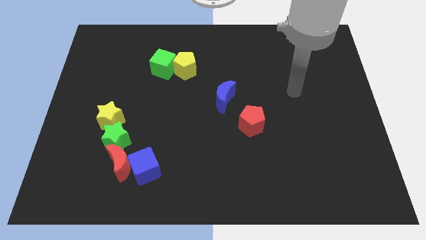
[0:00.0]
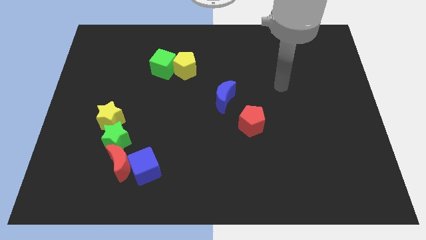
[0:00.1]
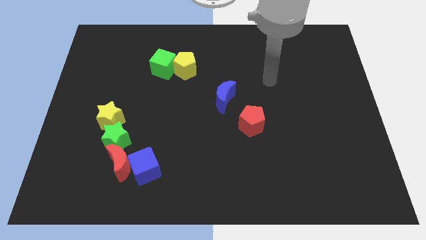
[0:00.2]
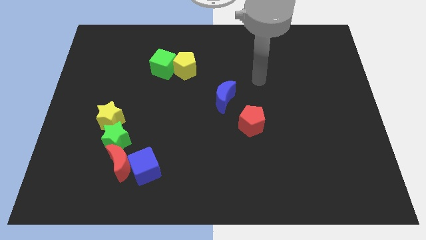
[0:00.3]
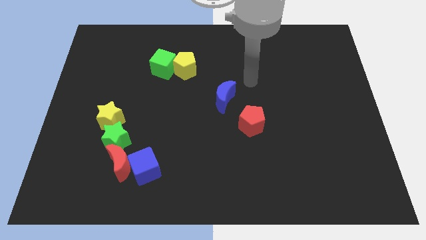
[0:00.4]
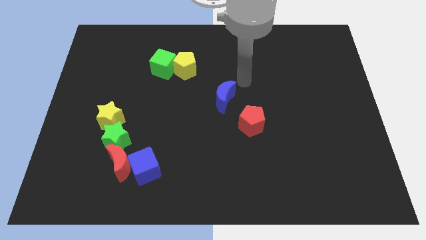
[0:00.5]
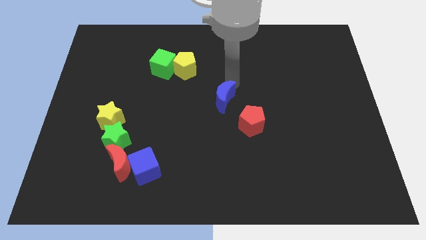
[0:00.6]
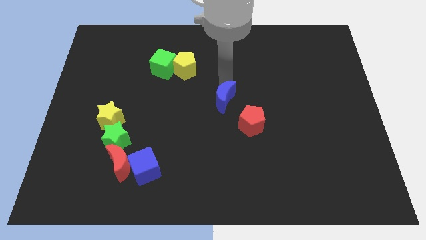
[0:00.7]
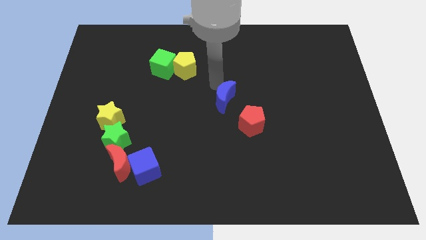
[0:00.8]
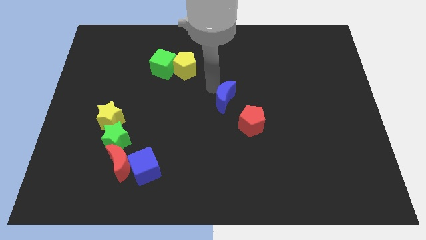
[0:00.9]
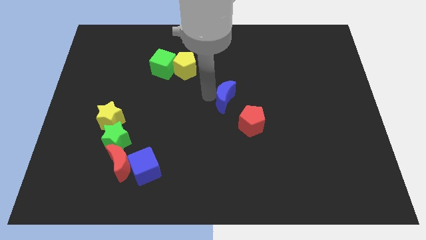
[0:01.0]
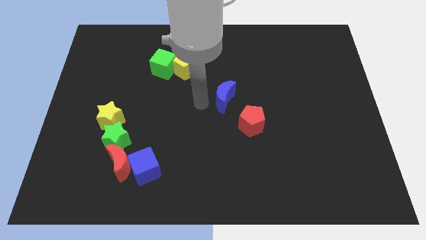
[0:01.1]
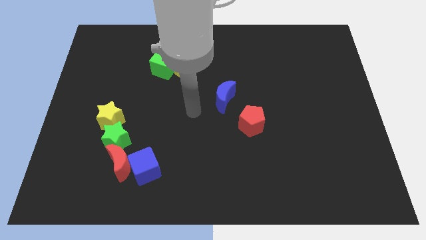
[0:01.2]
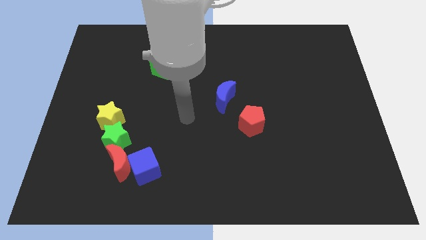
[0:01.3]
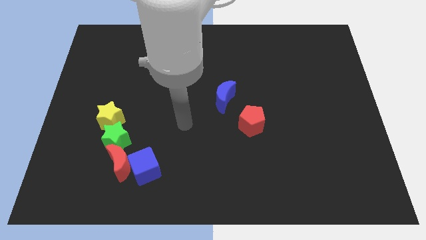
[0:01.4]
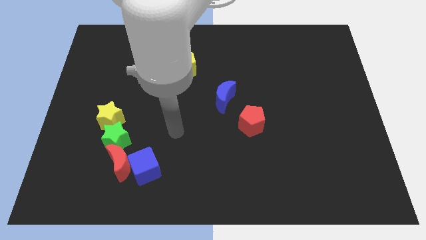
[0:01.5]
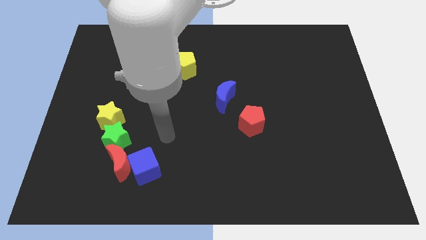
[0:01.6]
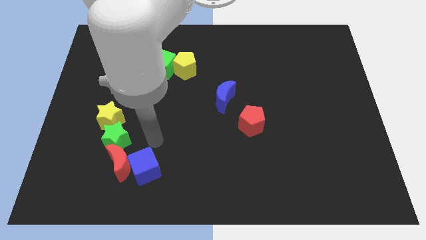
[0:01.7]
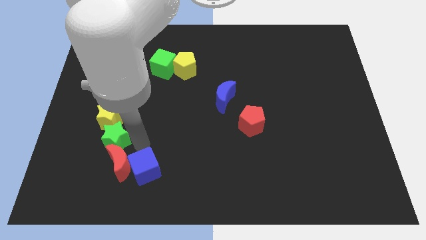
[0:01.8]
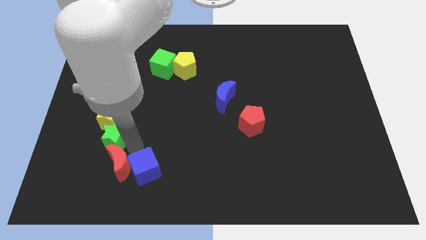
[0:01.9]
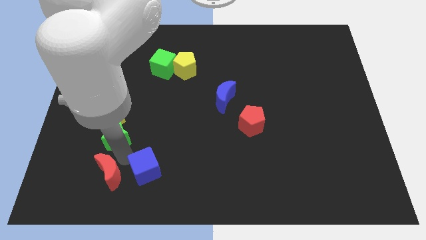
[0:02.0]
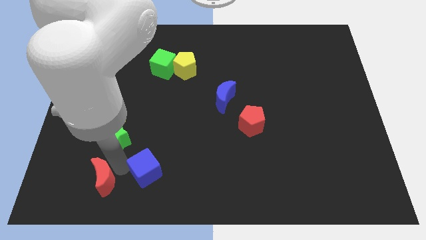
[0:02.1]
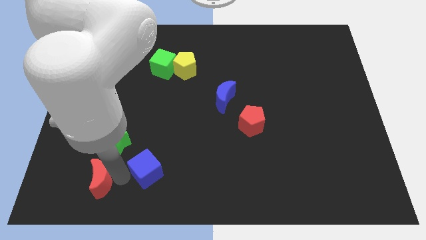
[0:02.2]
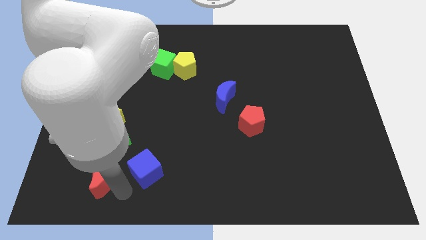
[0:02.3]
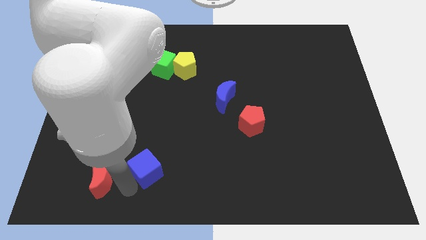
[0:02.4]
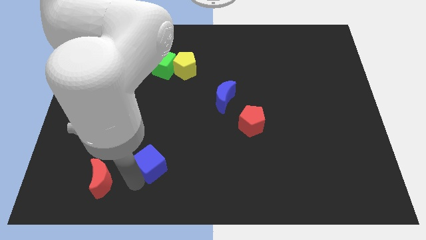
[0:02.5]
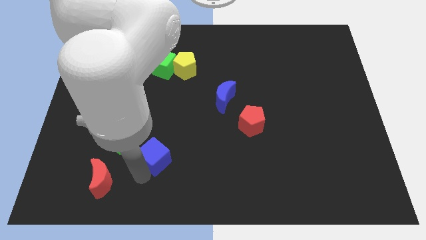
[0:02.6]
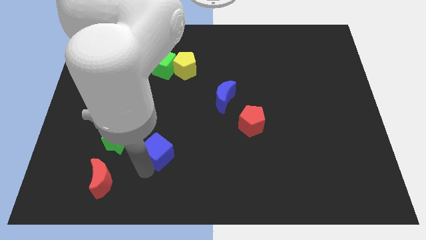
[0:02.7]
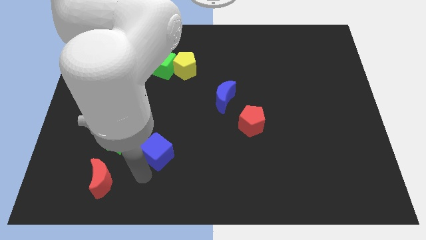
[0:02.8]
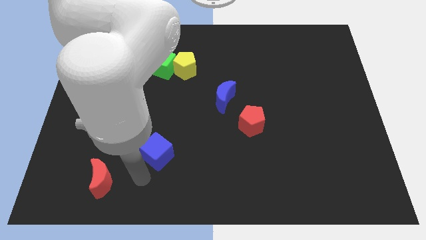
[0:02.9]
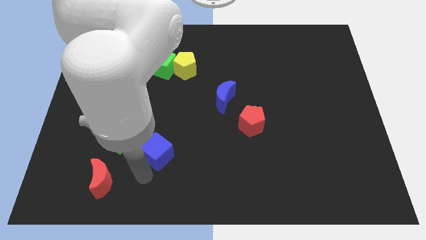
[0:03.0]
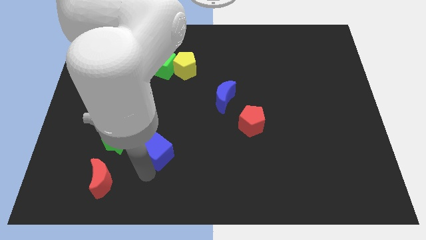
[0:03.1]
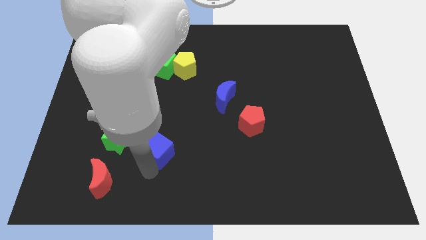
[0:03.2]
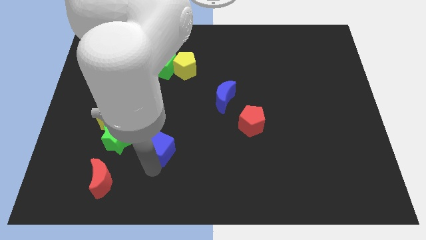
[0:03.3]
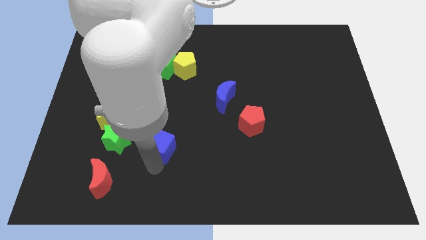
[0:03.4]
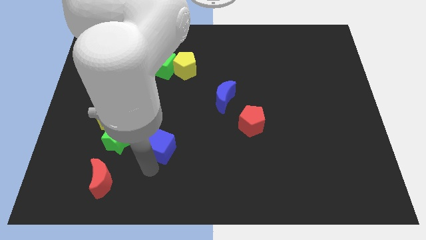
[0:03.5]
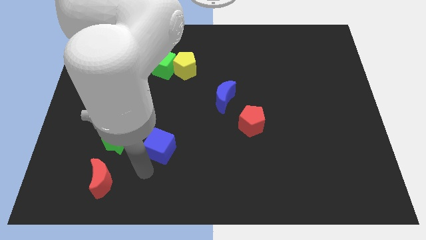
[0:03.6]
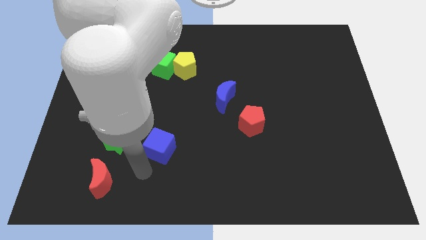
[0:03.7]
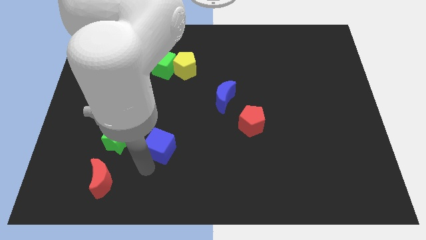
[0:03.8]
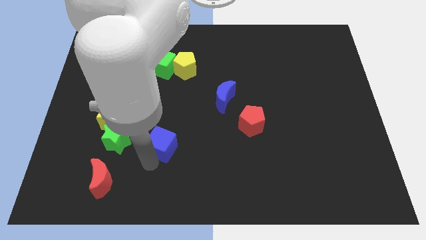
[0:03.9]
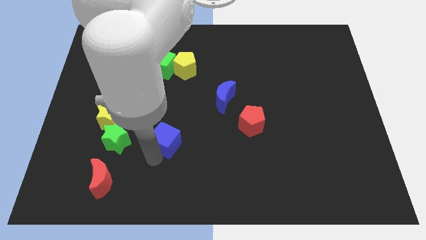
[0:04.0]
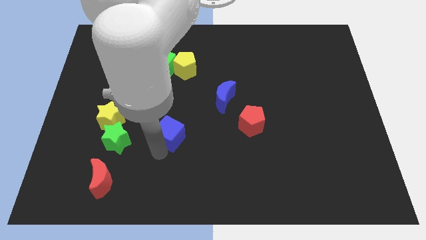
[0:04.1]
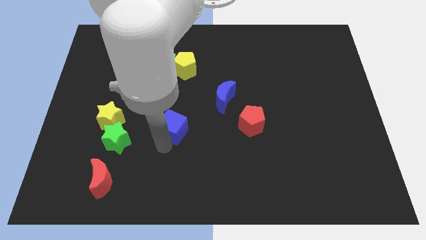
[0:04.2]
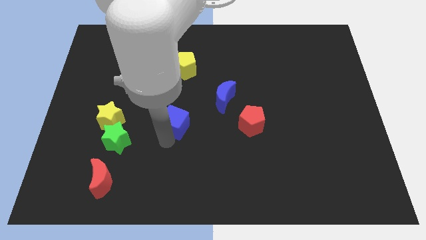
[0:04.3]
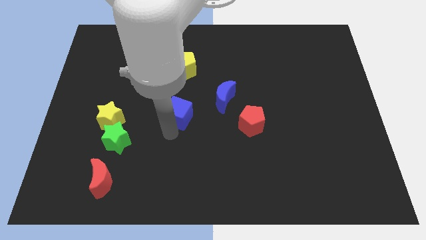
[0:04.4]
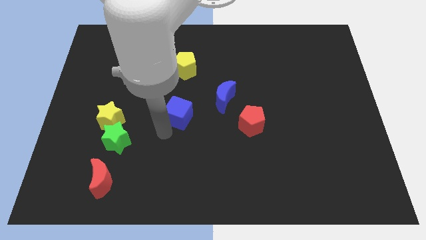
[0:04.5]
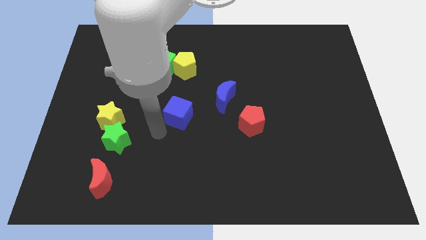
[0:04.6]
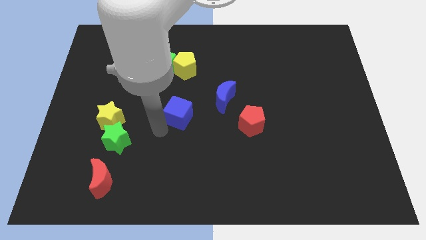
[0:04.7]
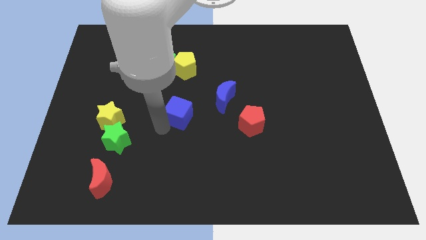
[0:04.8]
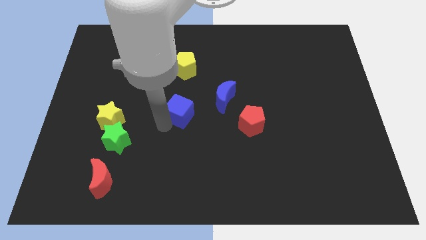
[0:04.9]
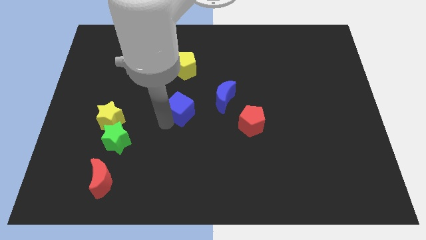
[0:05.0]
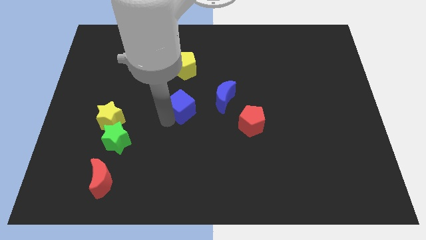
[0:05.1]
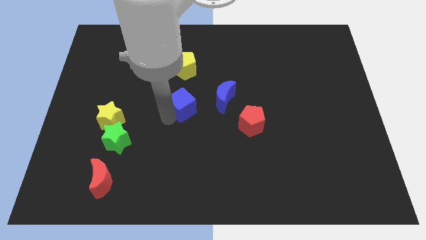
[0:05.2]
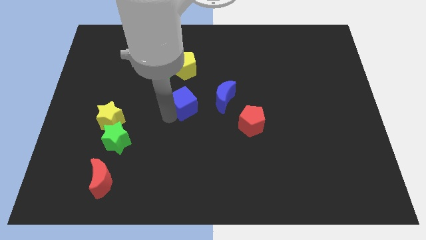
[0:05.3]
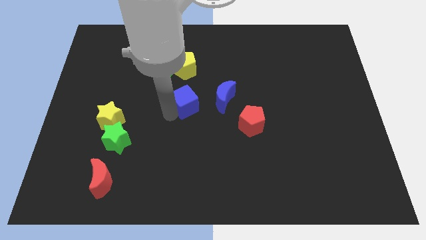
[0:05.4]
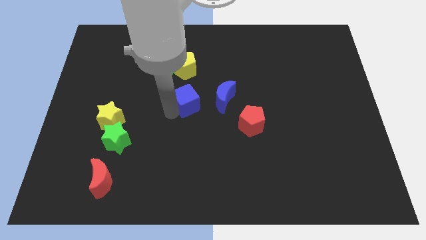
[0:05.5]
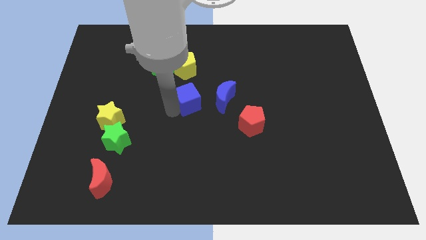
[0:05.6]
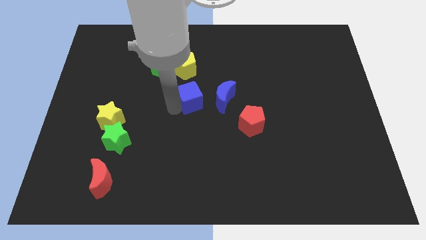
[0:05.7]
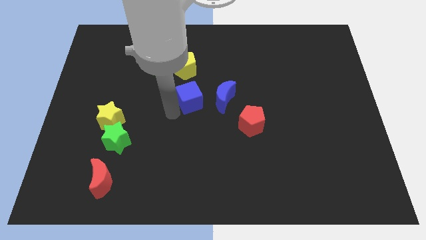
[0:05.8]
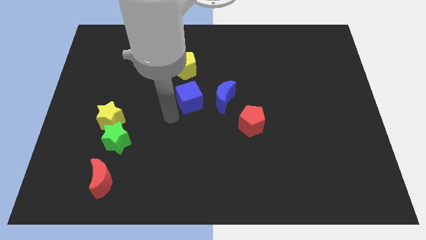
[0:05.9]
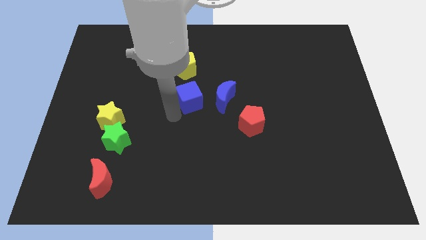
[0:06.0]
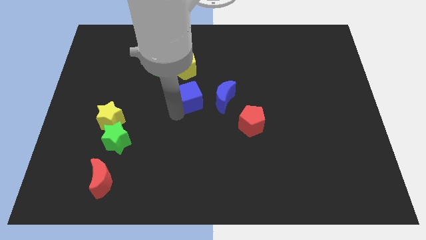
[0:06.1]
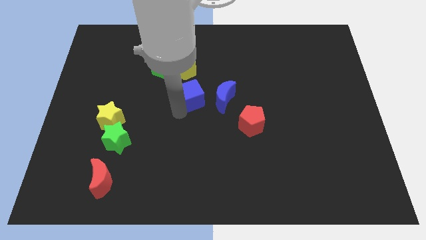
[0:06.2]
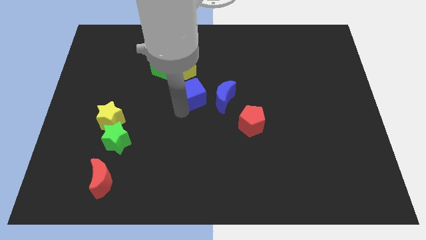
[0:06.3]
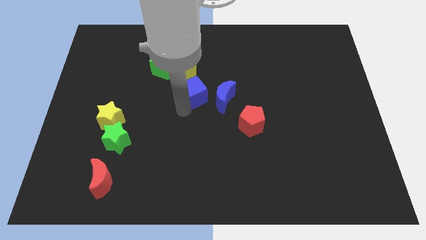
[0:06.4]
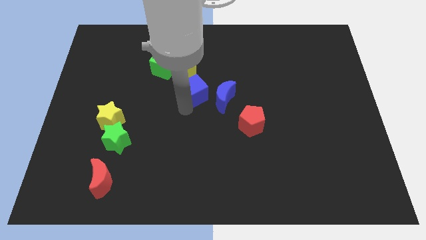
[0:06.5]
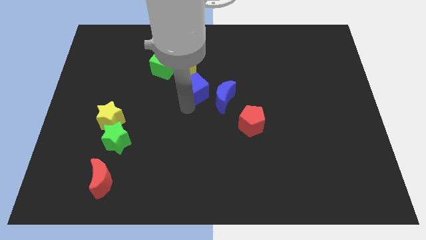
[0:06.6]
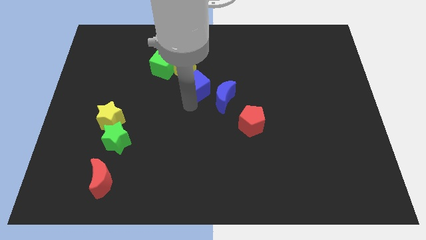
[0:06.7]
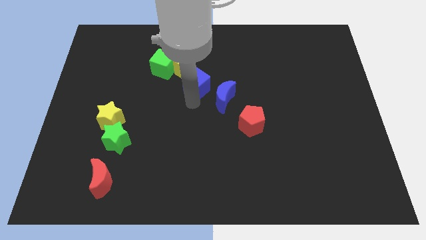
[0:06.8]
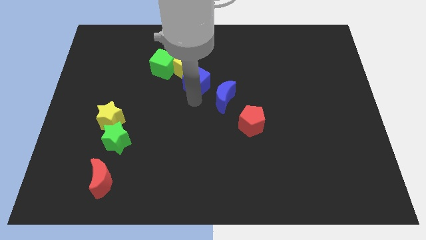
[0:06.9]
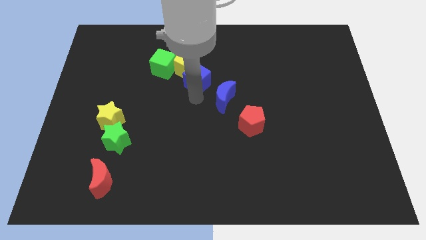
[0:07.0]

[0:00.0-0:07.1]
put the blue cube to the right of the green cube
